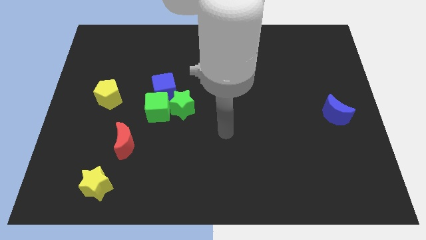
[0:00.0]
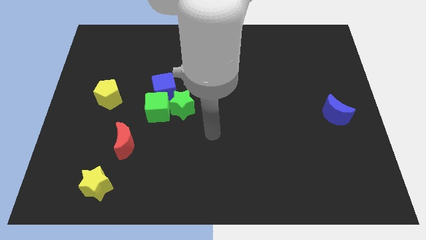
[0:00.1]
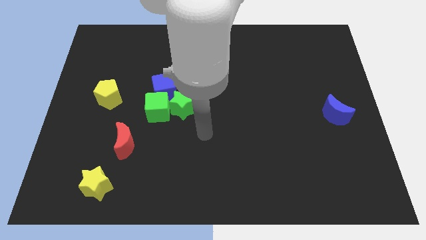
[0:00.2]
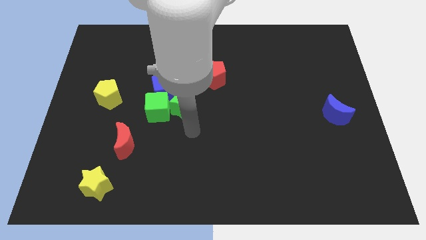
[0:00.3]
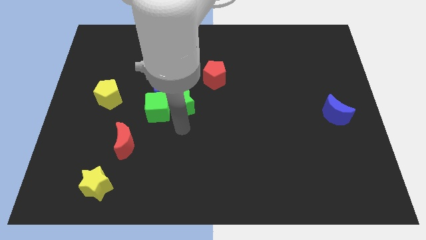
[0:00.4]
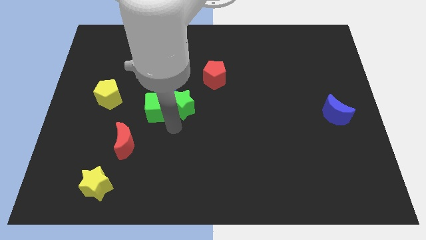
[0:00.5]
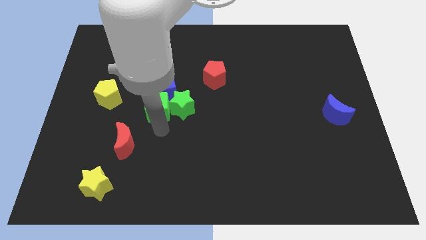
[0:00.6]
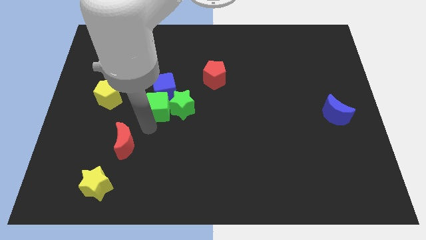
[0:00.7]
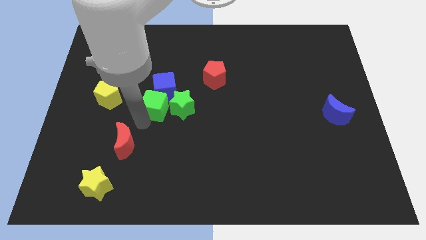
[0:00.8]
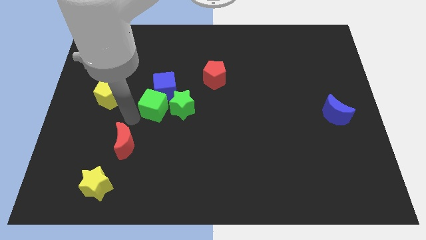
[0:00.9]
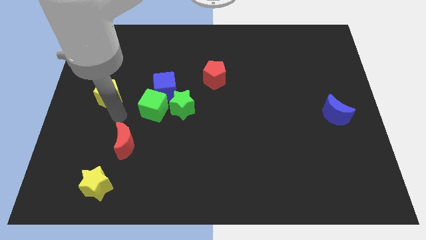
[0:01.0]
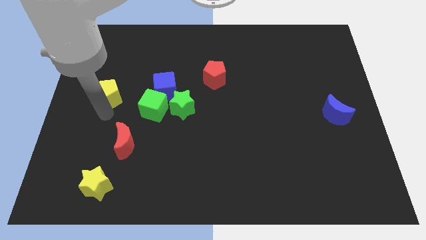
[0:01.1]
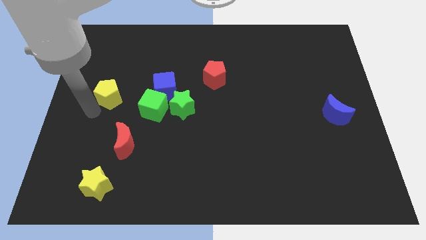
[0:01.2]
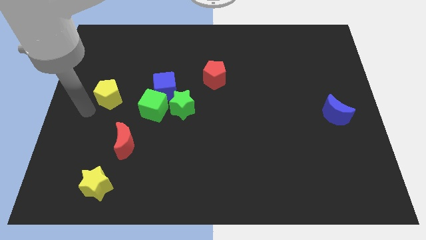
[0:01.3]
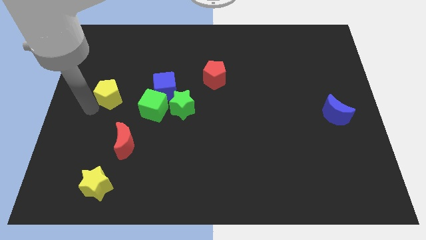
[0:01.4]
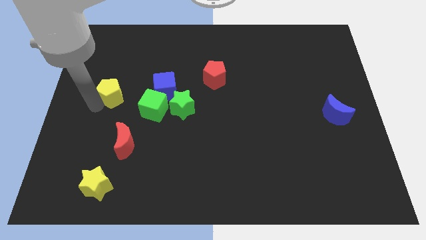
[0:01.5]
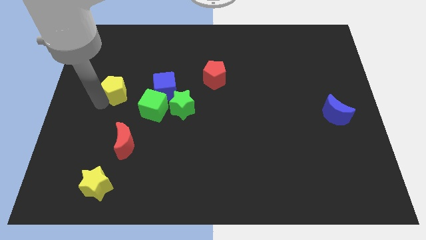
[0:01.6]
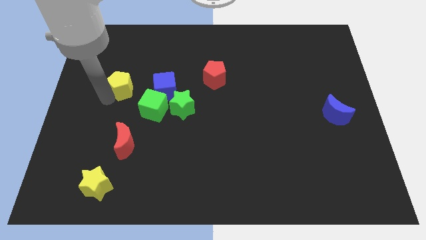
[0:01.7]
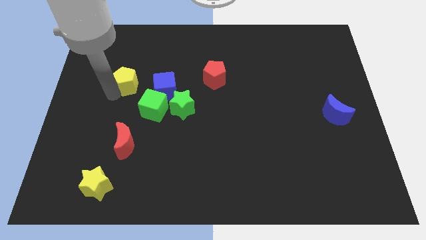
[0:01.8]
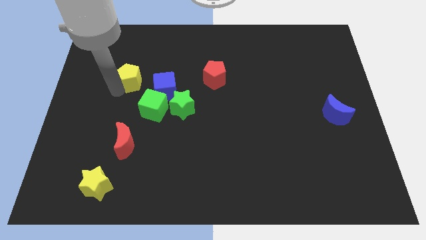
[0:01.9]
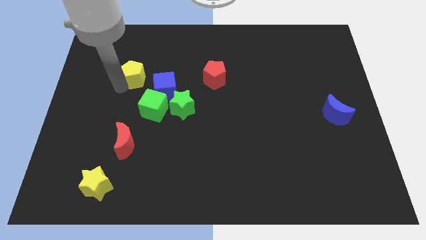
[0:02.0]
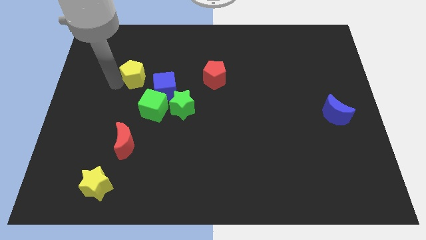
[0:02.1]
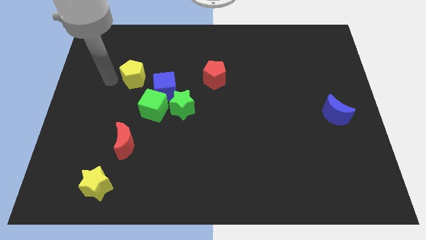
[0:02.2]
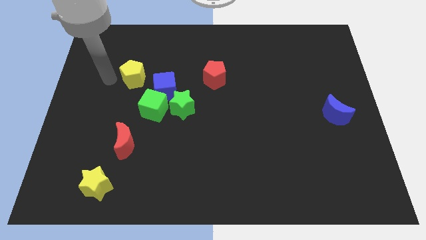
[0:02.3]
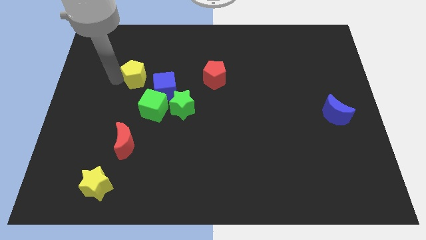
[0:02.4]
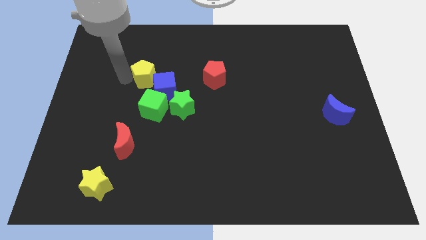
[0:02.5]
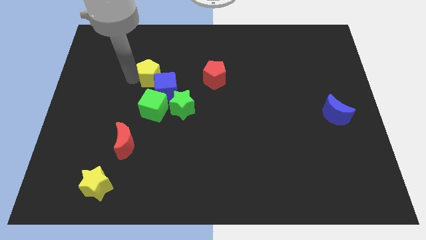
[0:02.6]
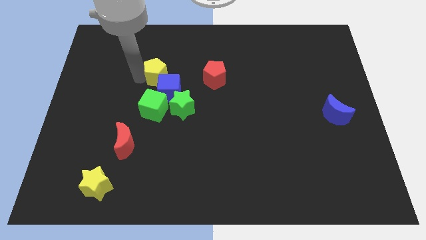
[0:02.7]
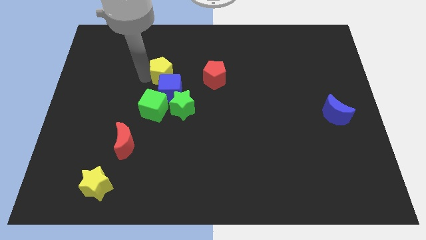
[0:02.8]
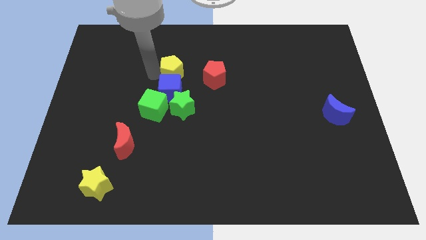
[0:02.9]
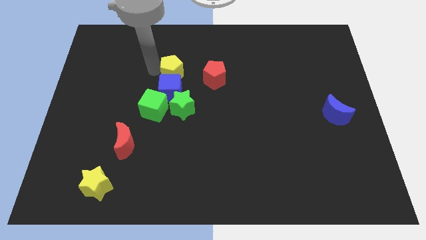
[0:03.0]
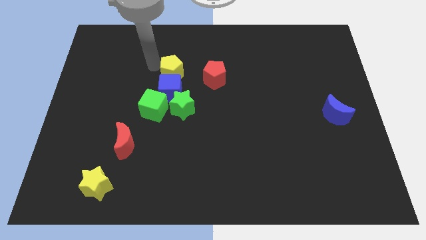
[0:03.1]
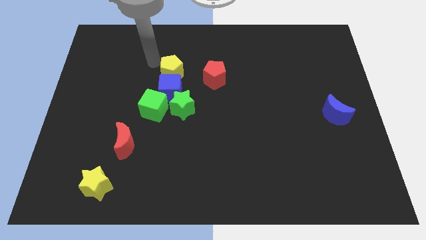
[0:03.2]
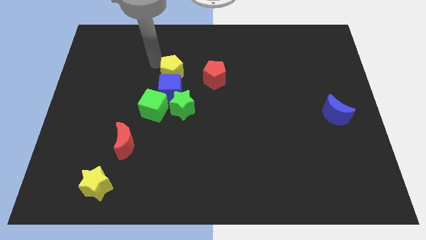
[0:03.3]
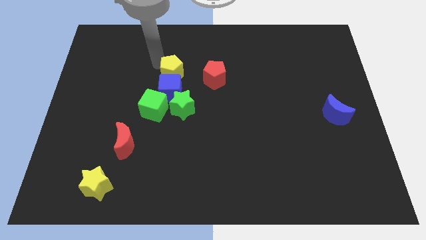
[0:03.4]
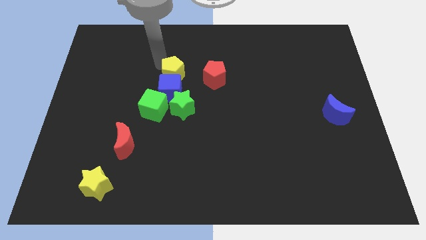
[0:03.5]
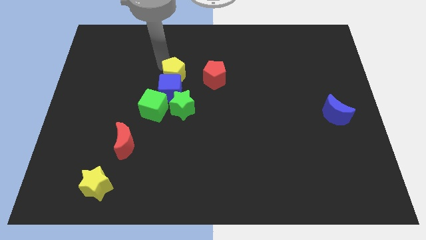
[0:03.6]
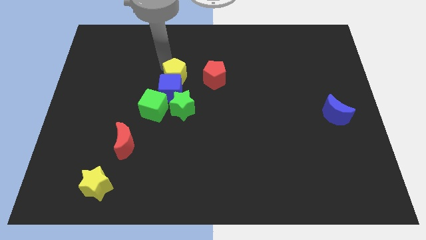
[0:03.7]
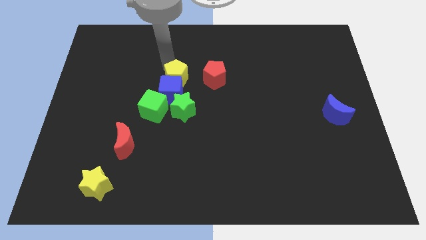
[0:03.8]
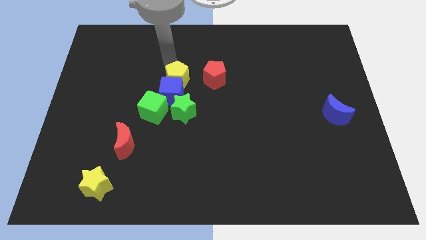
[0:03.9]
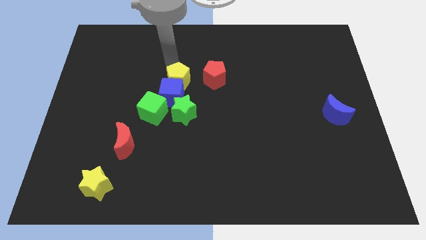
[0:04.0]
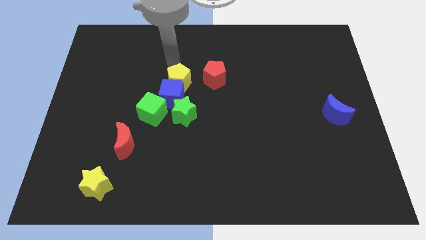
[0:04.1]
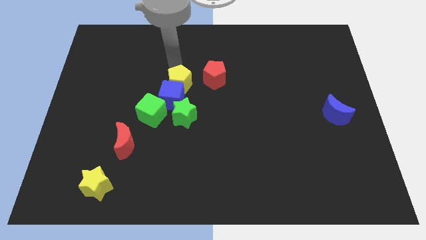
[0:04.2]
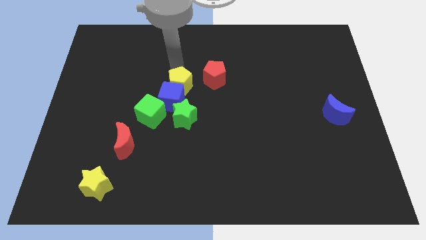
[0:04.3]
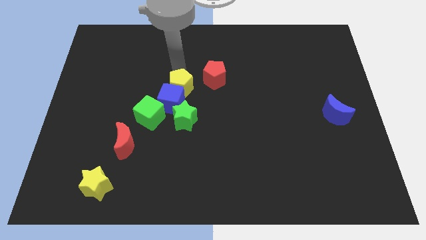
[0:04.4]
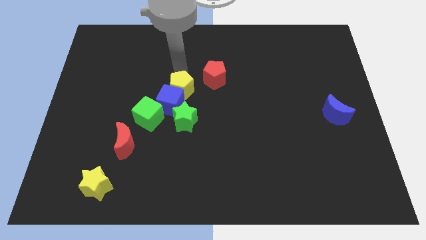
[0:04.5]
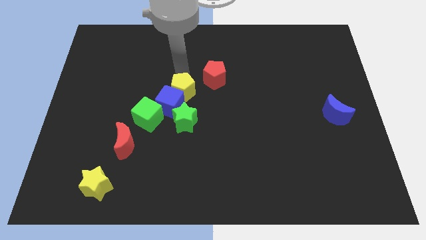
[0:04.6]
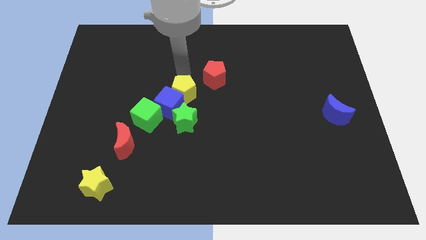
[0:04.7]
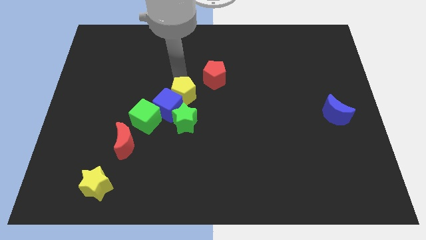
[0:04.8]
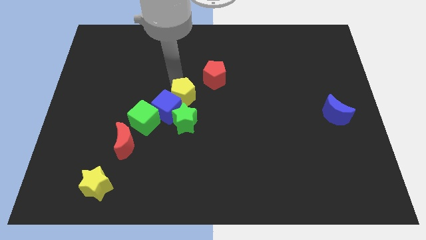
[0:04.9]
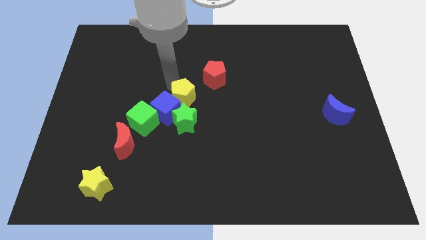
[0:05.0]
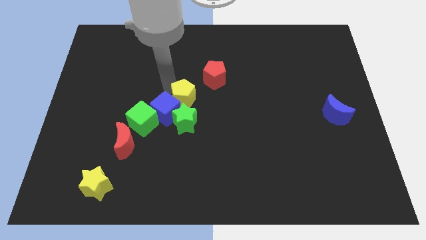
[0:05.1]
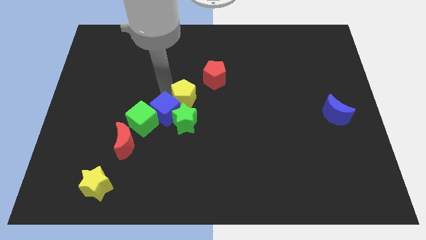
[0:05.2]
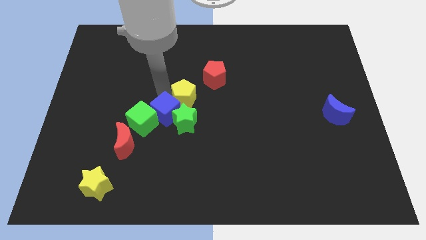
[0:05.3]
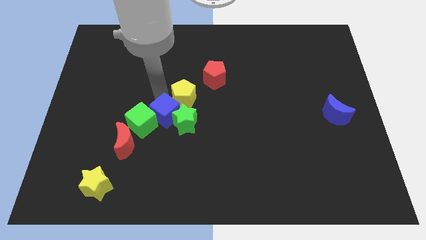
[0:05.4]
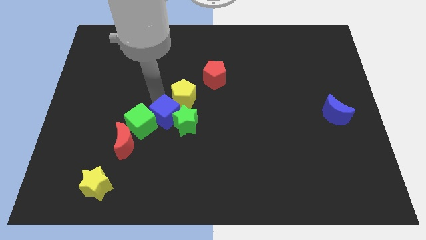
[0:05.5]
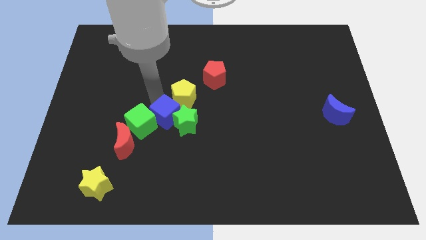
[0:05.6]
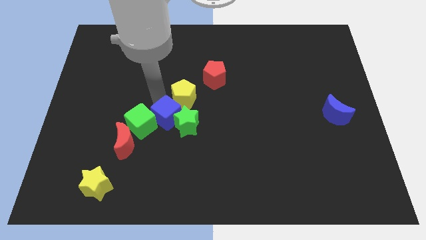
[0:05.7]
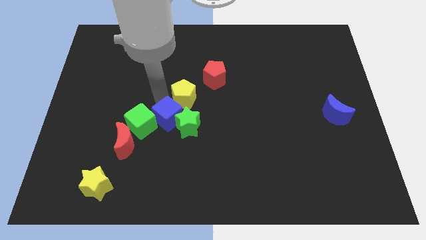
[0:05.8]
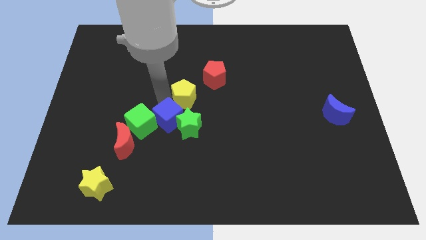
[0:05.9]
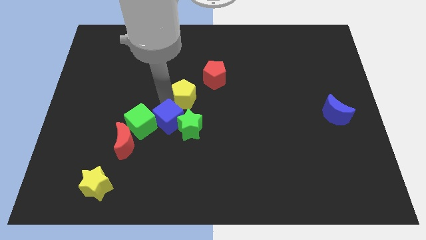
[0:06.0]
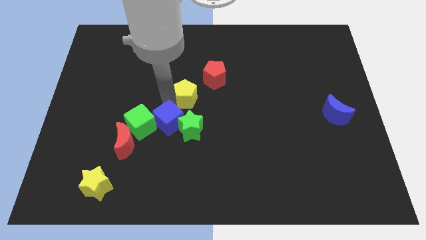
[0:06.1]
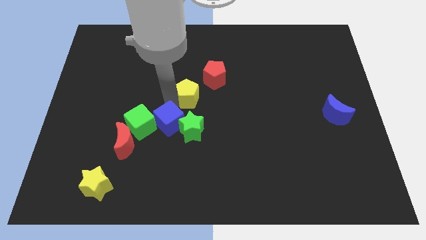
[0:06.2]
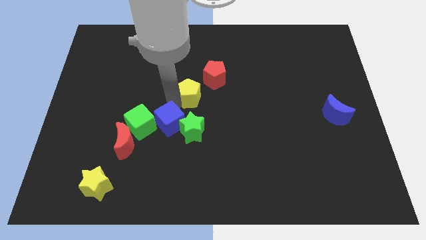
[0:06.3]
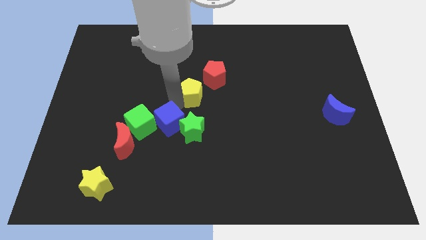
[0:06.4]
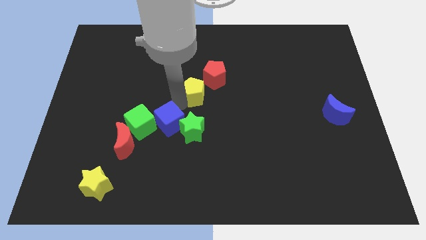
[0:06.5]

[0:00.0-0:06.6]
push the yellow pentagon right

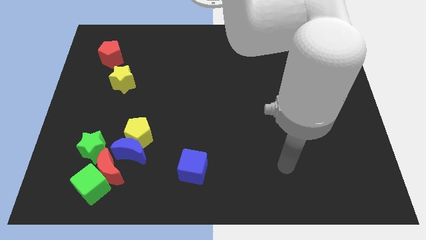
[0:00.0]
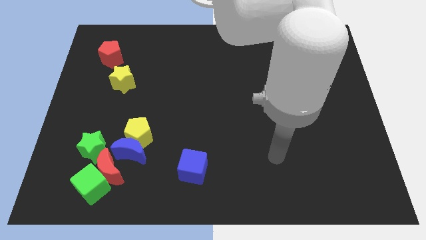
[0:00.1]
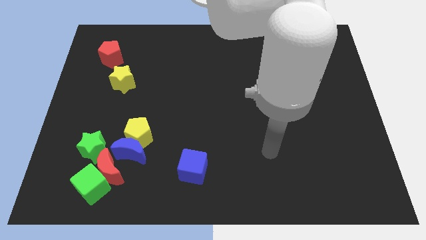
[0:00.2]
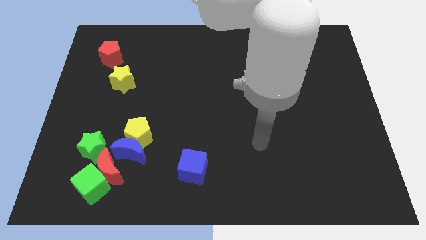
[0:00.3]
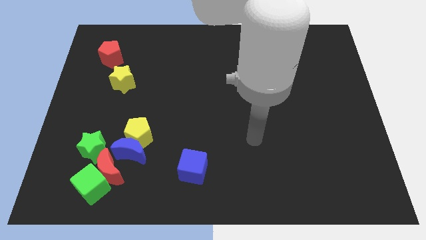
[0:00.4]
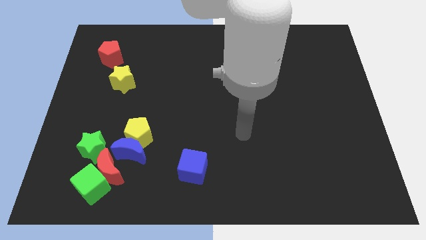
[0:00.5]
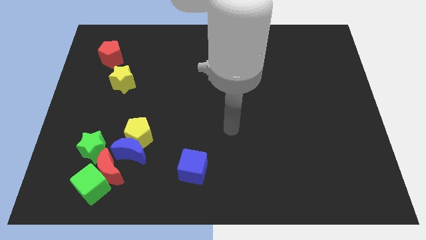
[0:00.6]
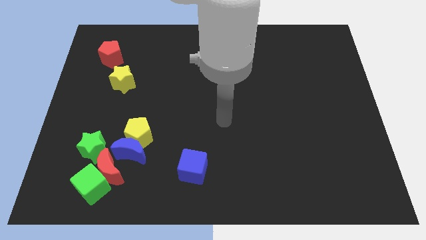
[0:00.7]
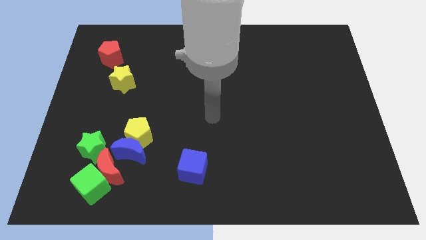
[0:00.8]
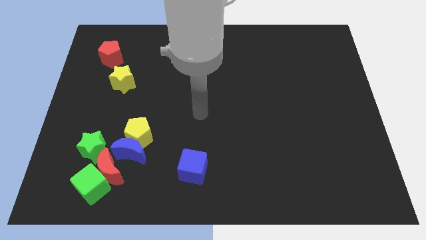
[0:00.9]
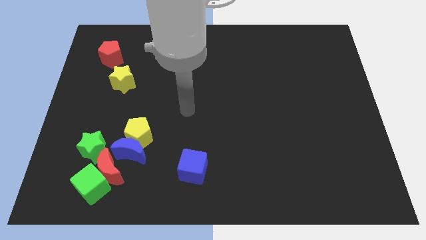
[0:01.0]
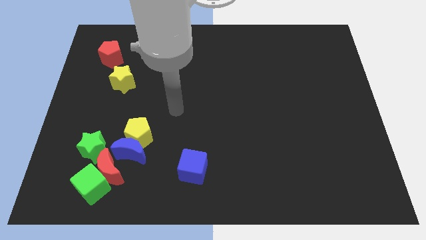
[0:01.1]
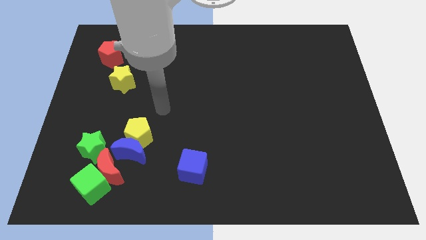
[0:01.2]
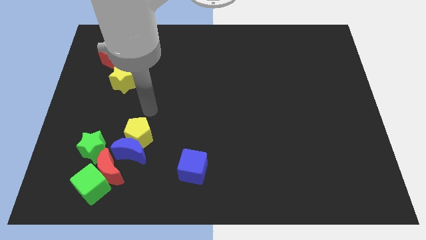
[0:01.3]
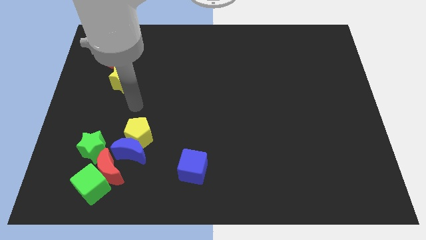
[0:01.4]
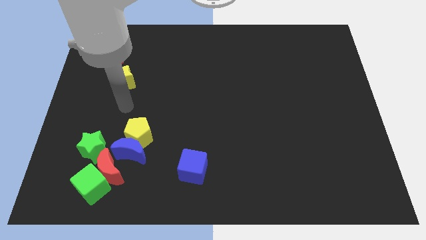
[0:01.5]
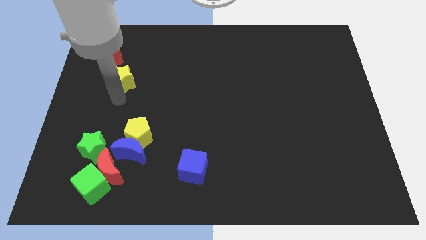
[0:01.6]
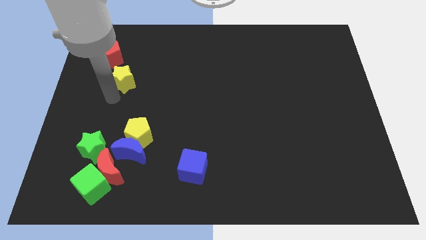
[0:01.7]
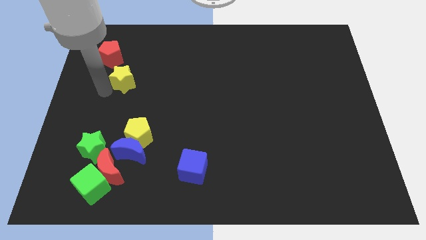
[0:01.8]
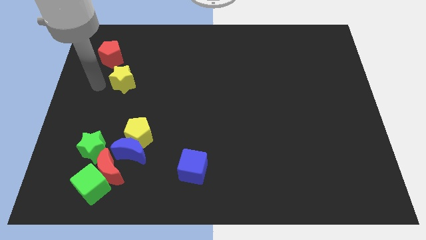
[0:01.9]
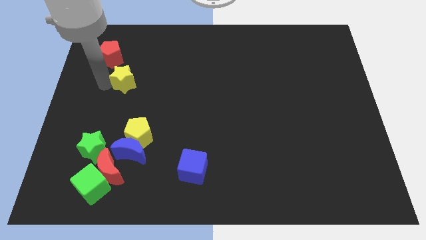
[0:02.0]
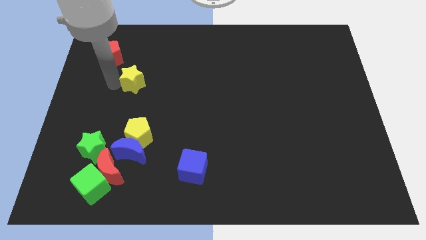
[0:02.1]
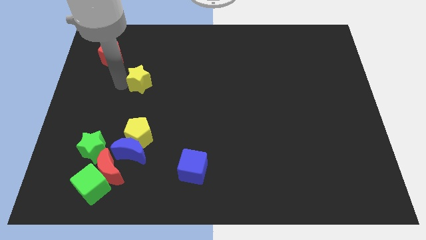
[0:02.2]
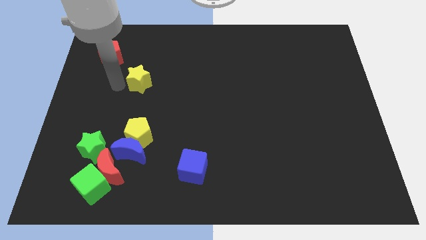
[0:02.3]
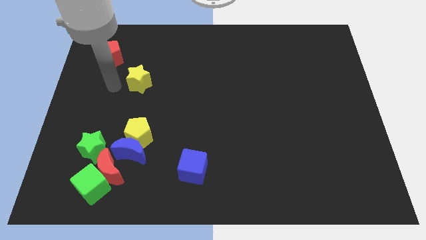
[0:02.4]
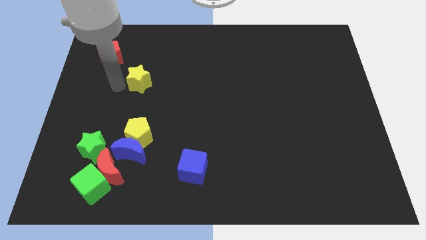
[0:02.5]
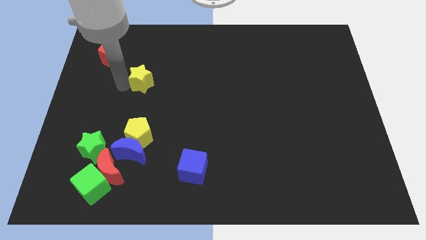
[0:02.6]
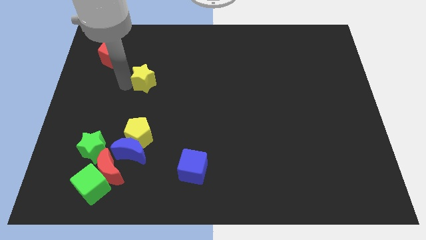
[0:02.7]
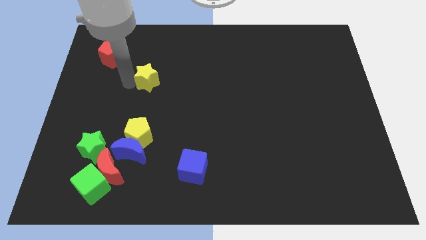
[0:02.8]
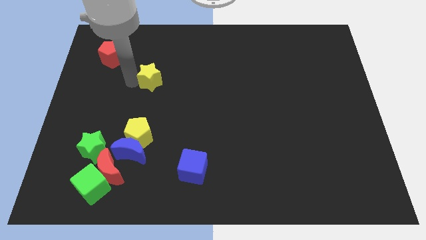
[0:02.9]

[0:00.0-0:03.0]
push the yellow star to the right a little
